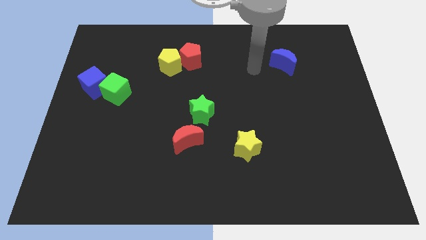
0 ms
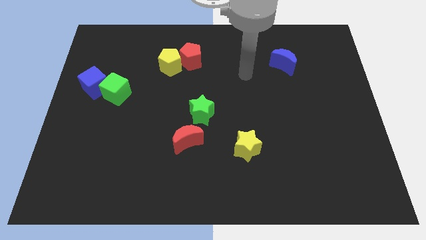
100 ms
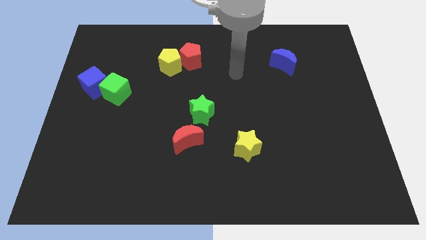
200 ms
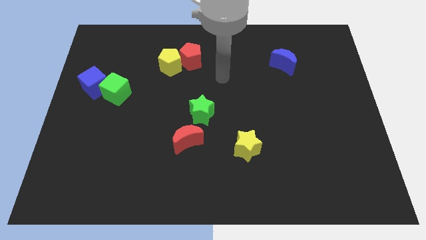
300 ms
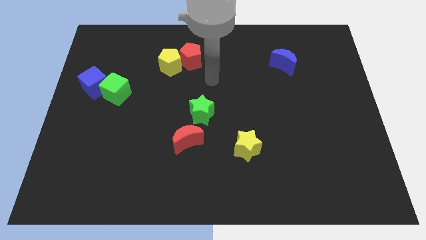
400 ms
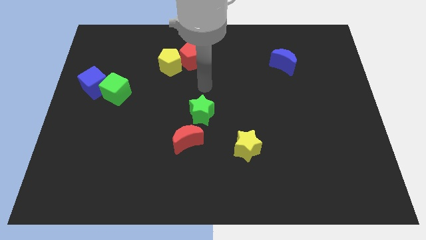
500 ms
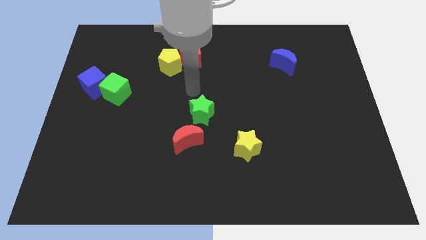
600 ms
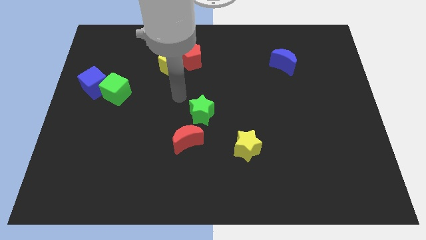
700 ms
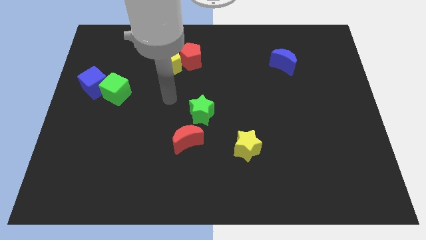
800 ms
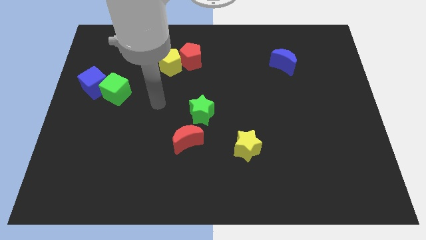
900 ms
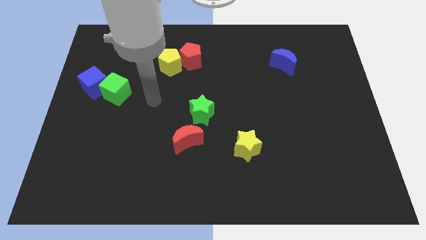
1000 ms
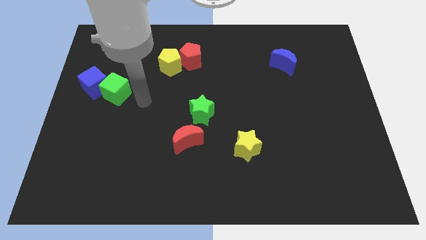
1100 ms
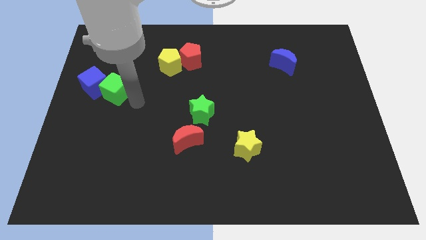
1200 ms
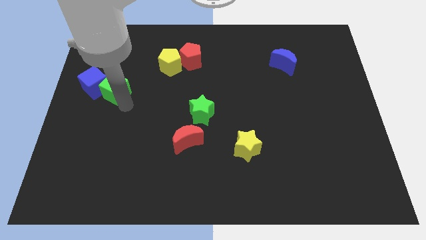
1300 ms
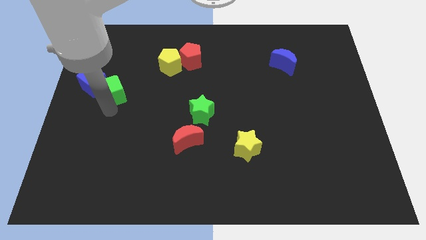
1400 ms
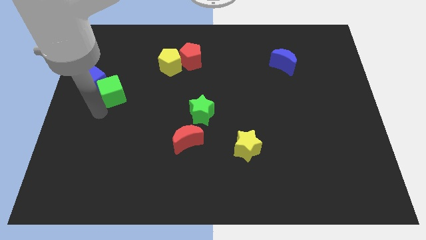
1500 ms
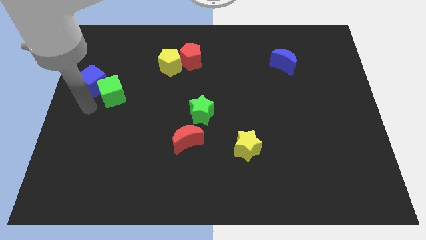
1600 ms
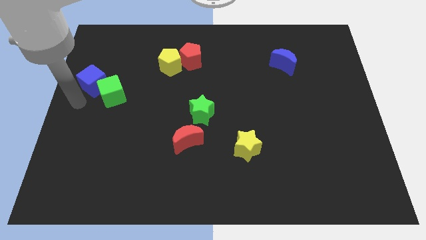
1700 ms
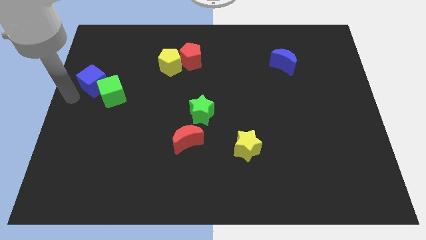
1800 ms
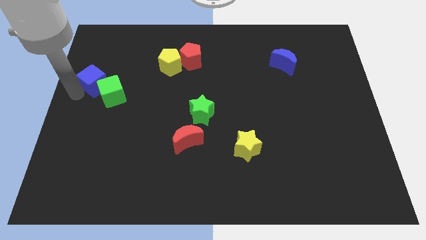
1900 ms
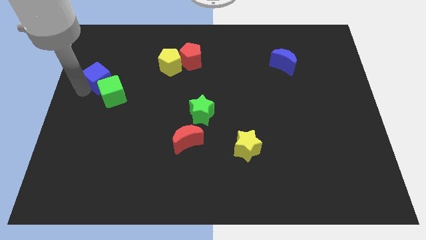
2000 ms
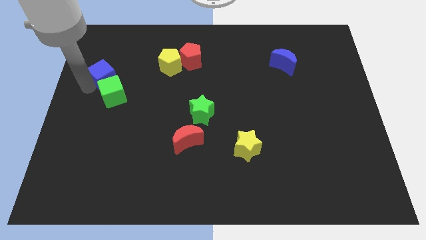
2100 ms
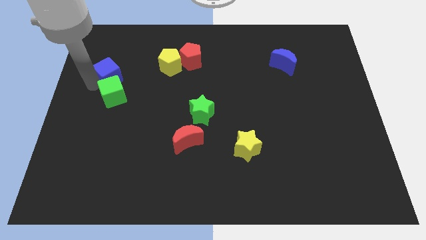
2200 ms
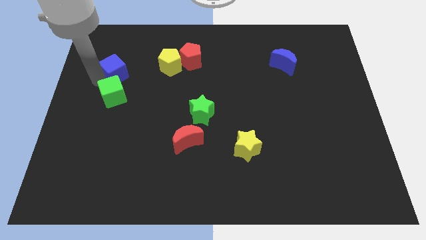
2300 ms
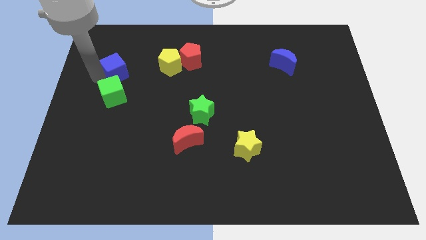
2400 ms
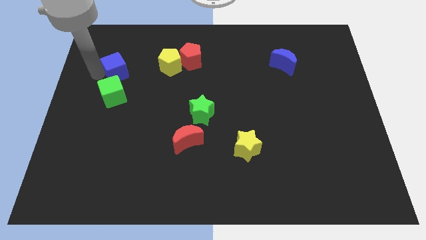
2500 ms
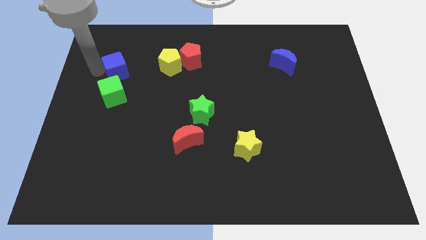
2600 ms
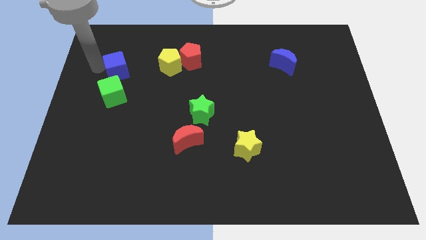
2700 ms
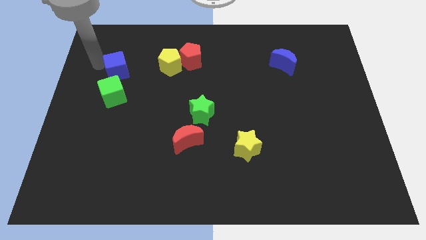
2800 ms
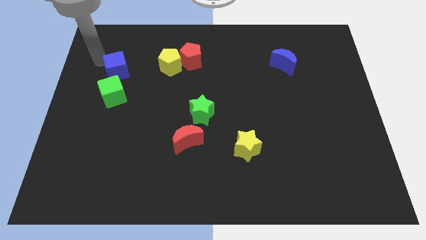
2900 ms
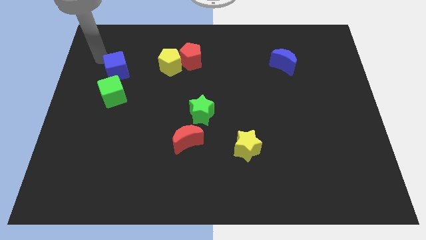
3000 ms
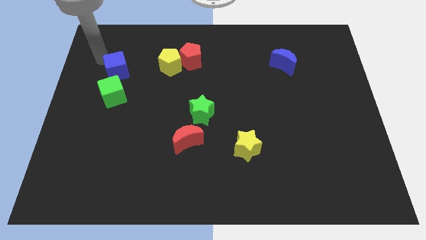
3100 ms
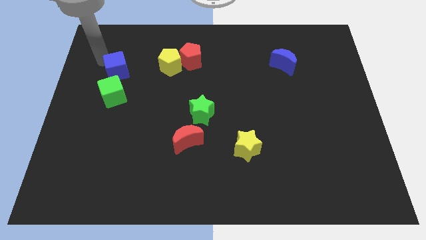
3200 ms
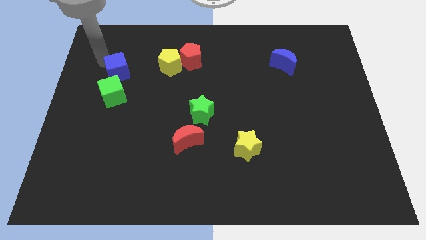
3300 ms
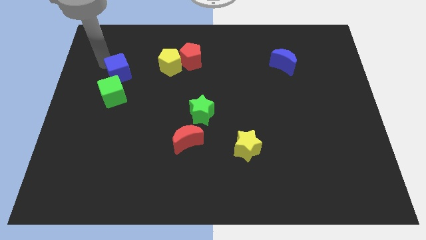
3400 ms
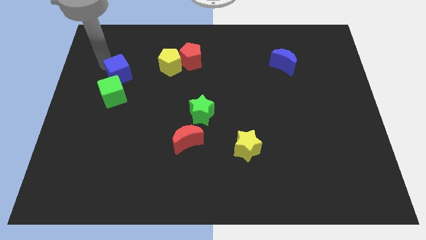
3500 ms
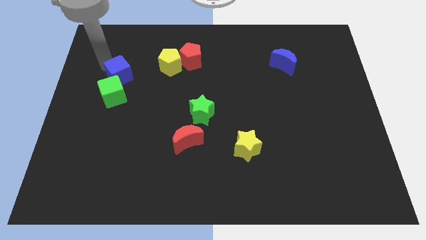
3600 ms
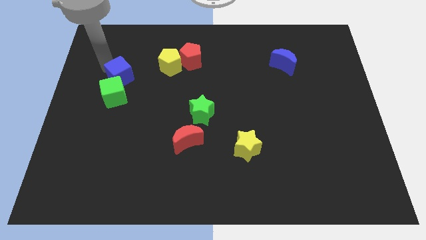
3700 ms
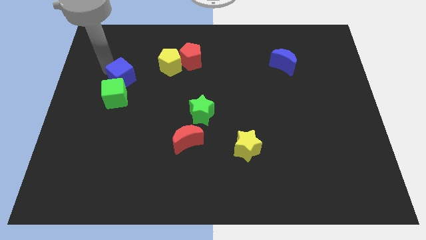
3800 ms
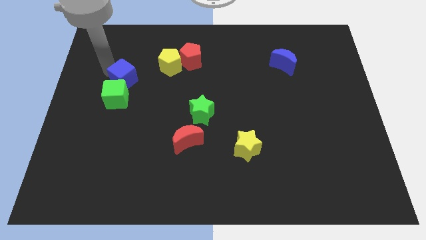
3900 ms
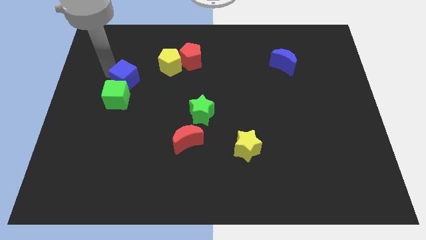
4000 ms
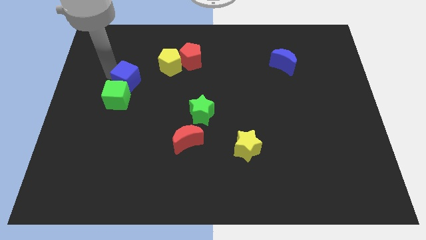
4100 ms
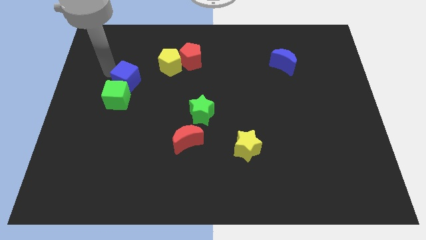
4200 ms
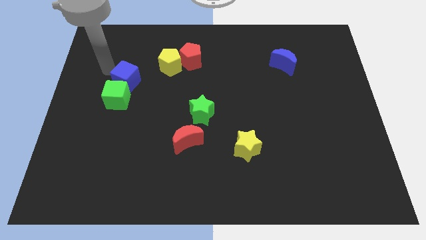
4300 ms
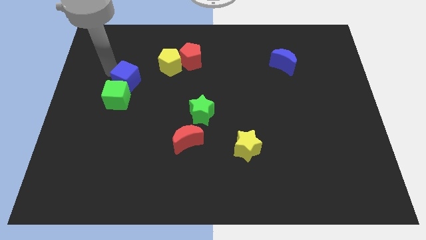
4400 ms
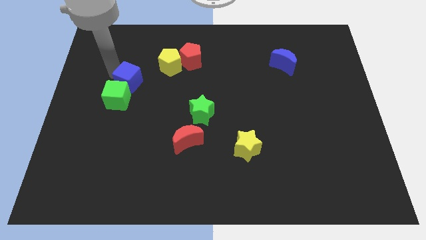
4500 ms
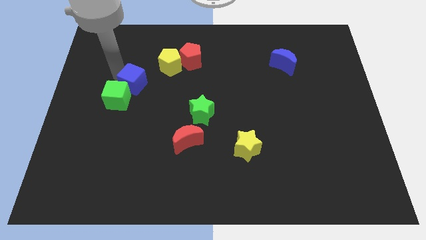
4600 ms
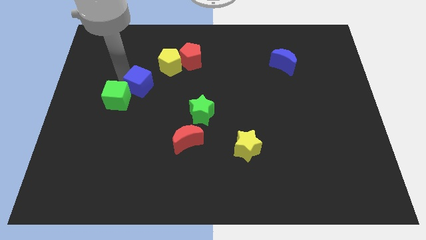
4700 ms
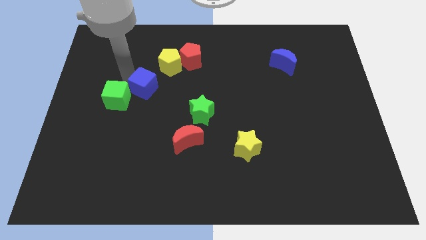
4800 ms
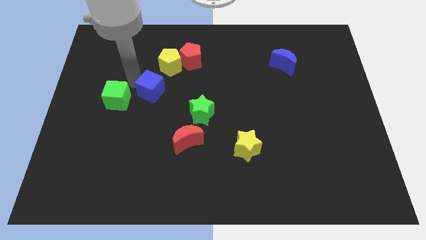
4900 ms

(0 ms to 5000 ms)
slide the blue cube to the bottom of the yellow pentagon

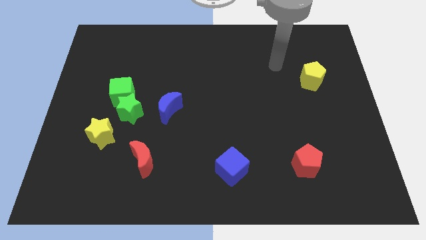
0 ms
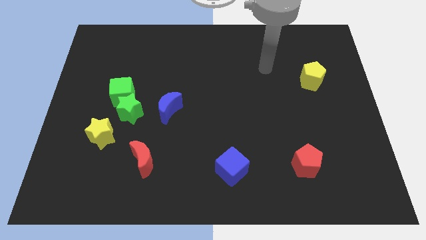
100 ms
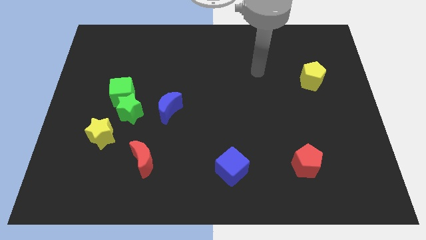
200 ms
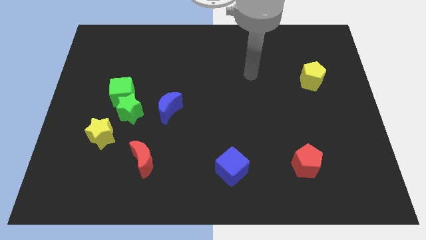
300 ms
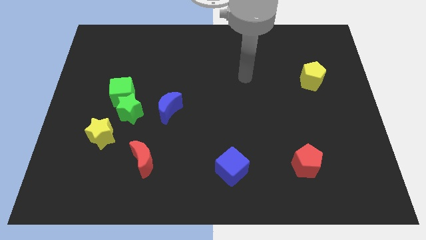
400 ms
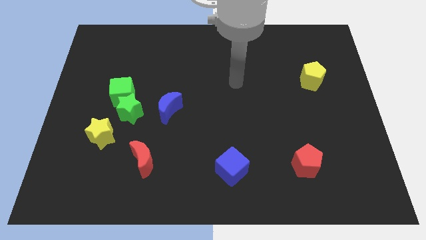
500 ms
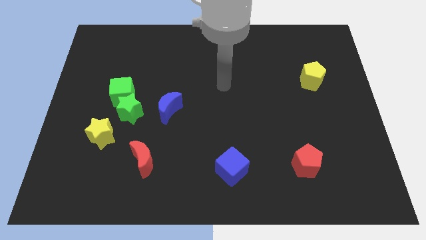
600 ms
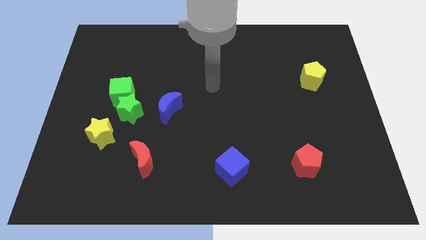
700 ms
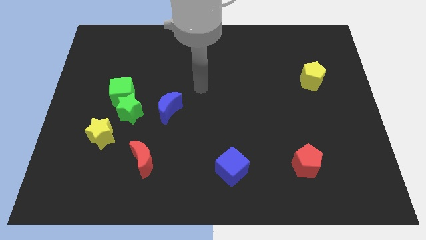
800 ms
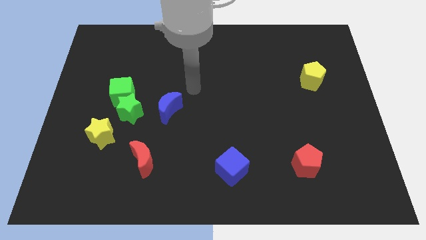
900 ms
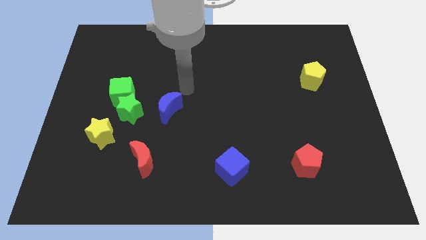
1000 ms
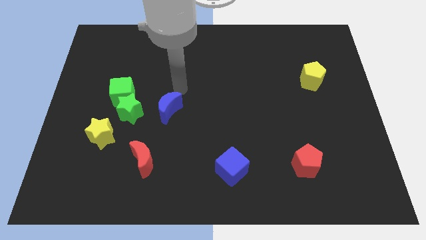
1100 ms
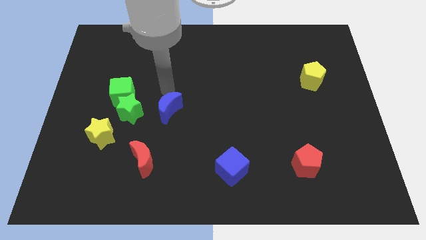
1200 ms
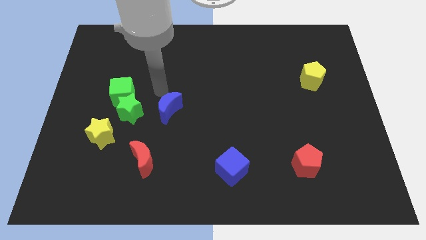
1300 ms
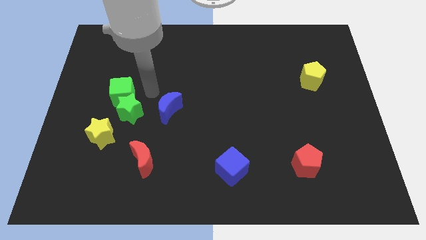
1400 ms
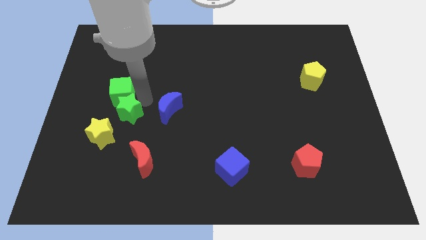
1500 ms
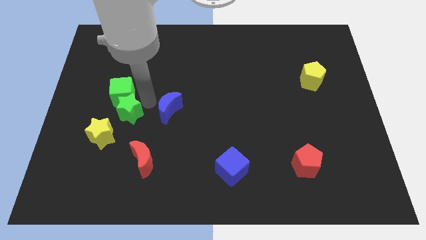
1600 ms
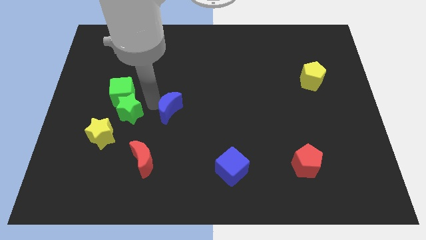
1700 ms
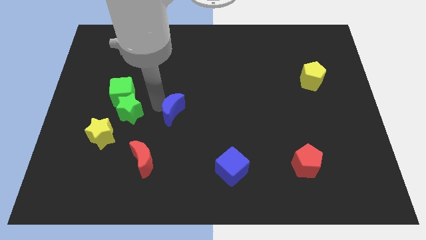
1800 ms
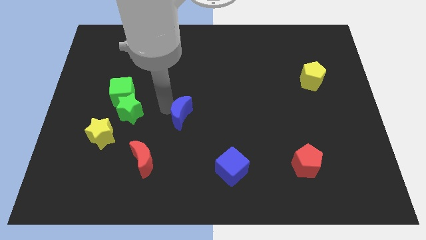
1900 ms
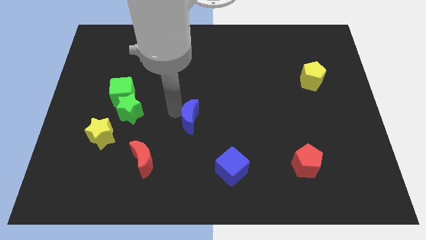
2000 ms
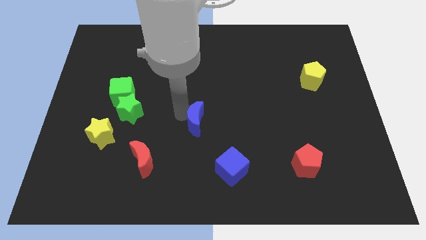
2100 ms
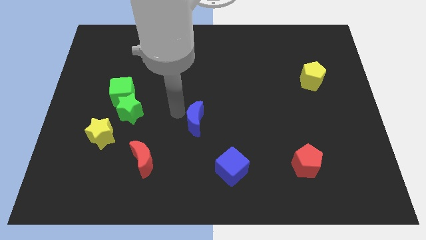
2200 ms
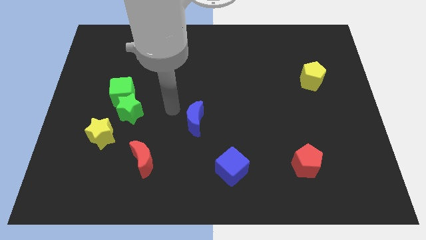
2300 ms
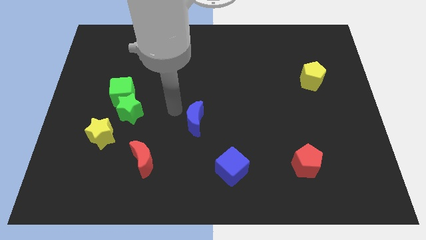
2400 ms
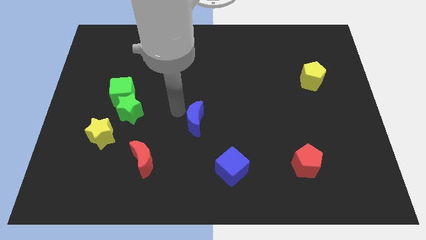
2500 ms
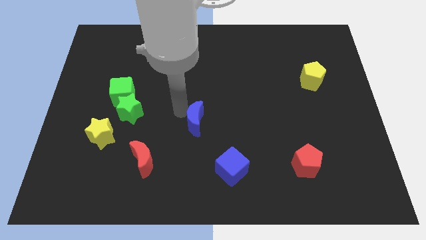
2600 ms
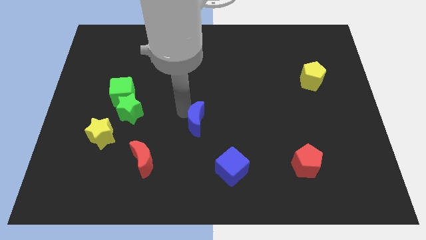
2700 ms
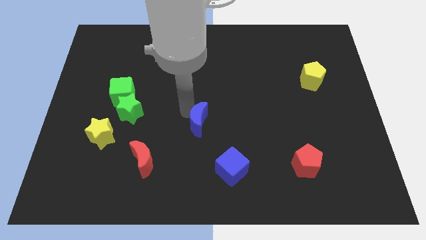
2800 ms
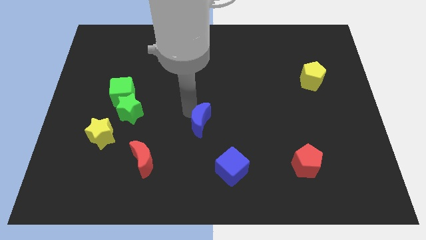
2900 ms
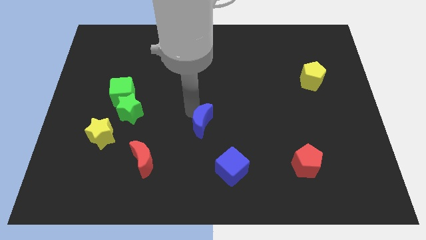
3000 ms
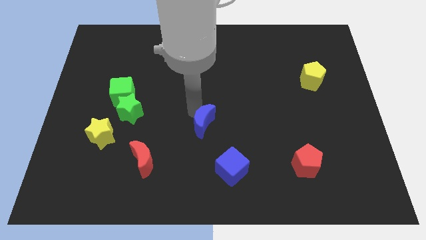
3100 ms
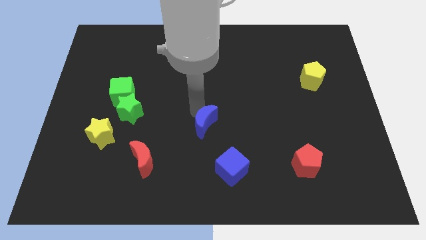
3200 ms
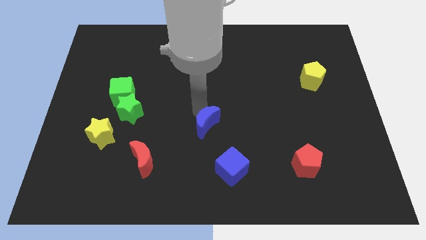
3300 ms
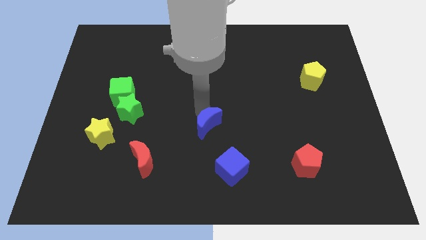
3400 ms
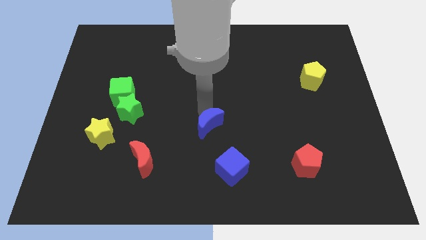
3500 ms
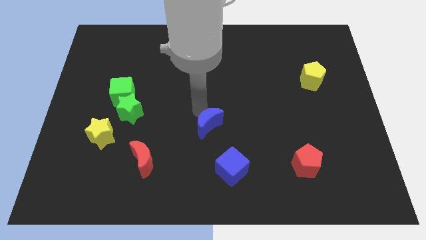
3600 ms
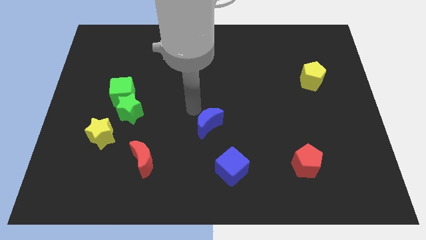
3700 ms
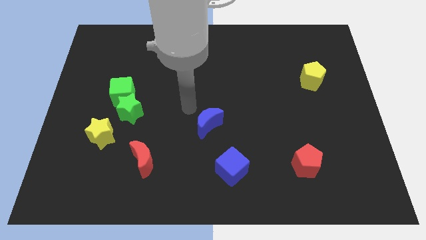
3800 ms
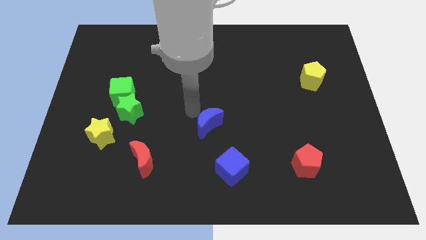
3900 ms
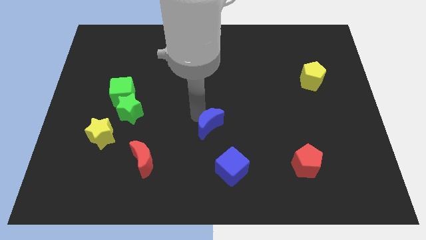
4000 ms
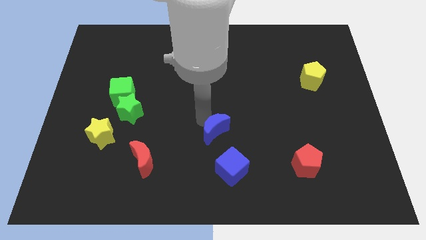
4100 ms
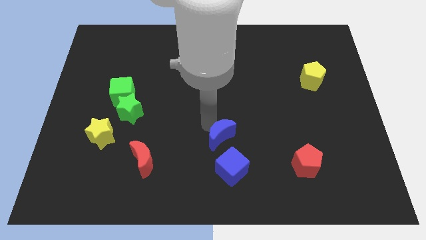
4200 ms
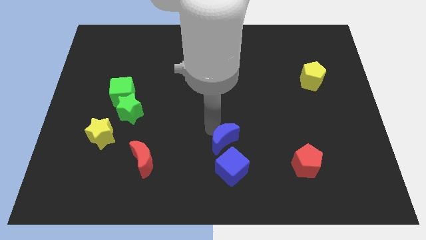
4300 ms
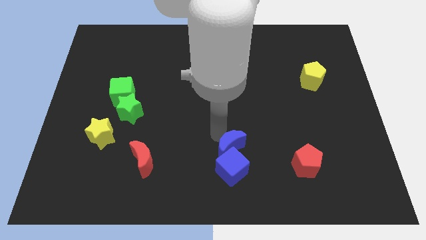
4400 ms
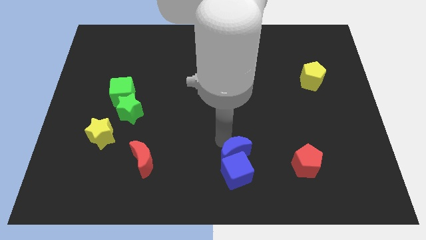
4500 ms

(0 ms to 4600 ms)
slide the blue moon to the left side of the red pentagon
